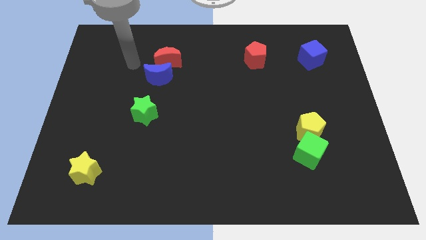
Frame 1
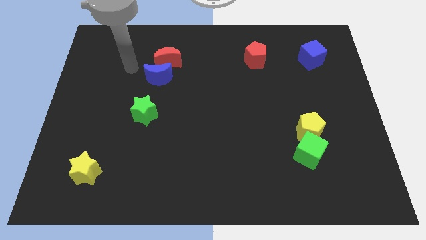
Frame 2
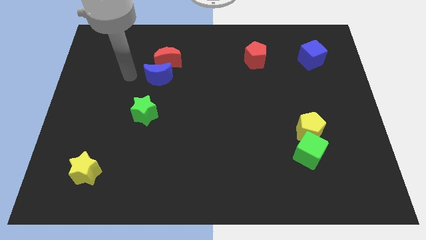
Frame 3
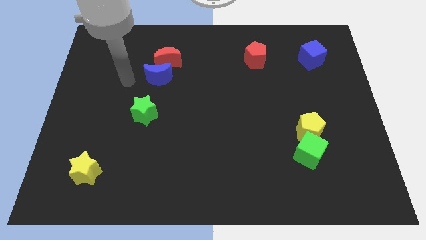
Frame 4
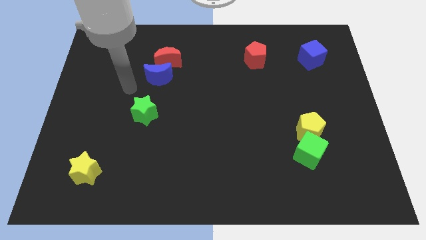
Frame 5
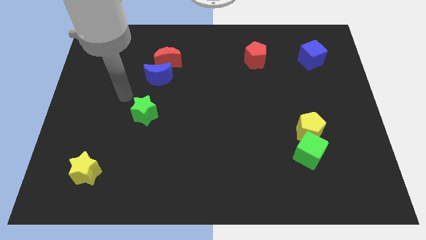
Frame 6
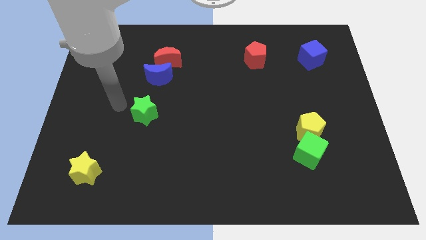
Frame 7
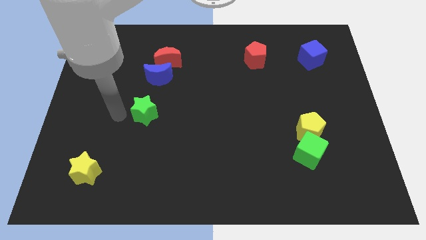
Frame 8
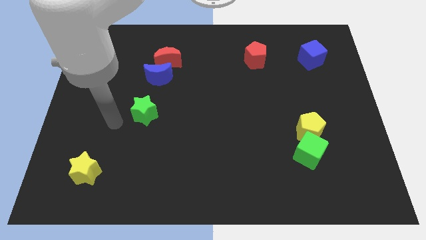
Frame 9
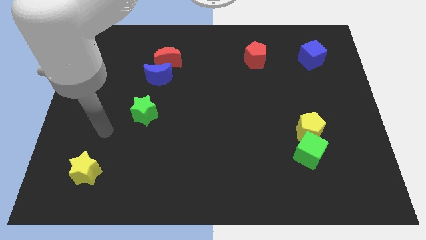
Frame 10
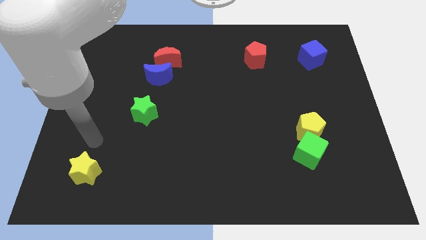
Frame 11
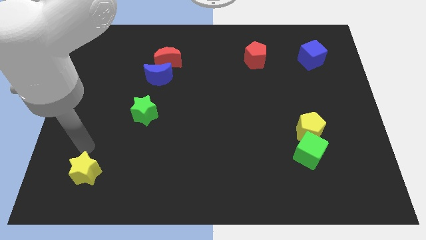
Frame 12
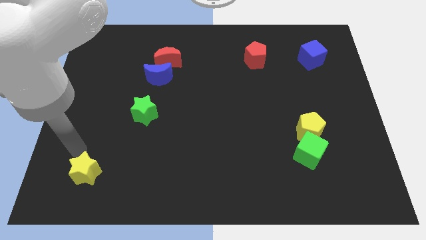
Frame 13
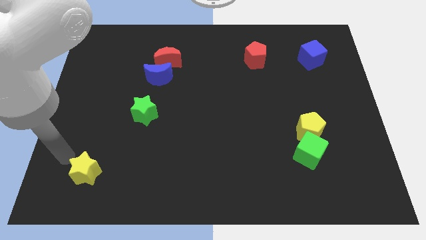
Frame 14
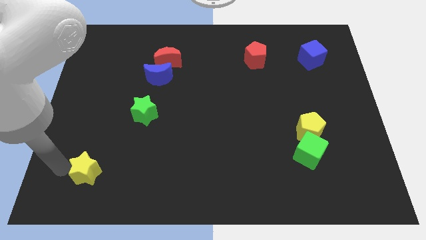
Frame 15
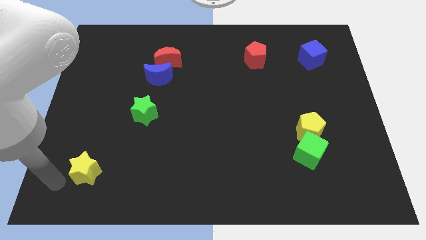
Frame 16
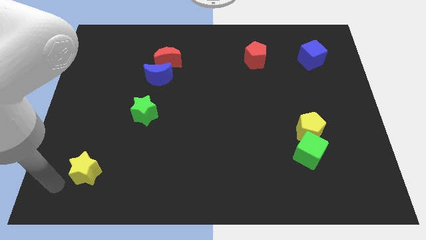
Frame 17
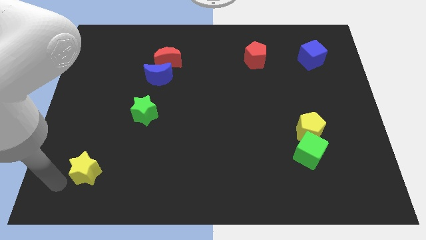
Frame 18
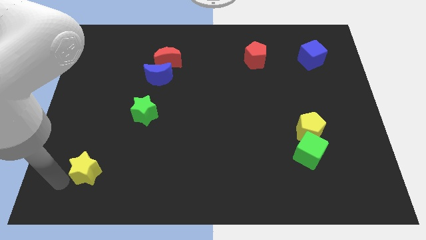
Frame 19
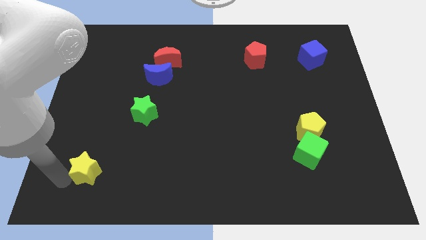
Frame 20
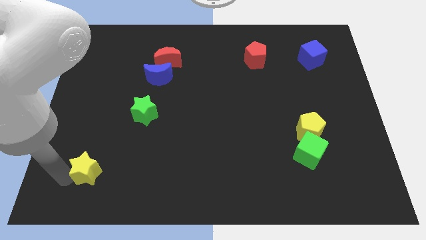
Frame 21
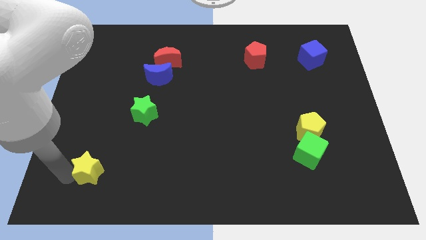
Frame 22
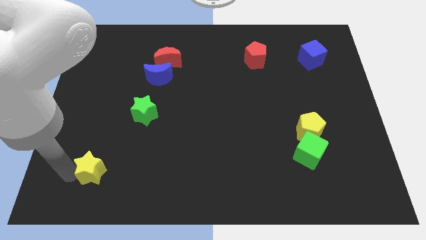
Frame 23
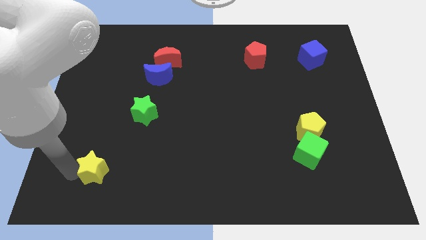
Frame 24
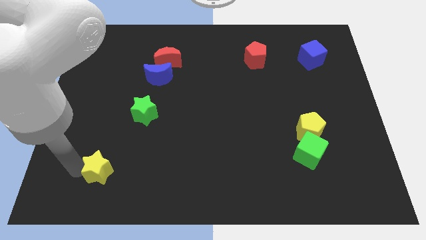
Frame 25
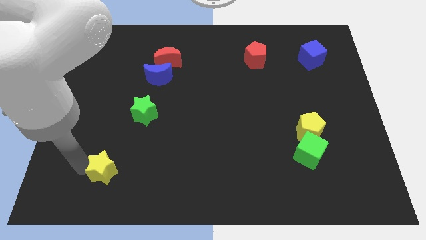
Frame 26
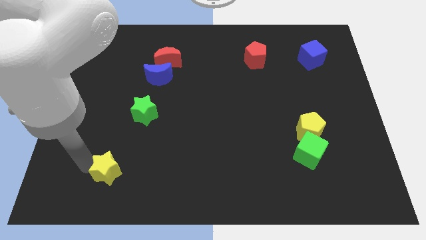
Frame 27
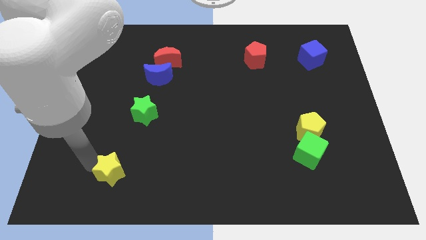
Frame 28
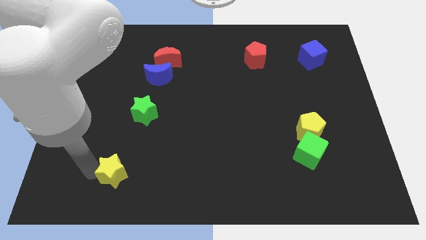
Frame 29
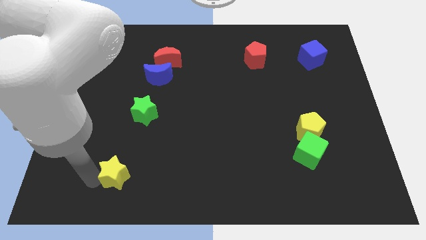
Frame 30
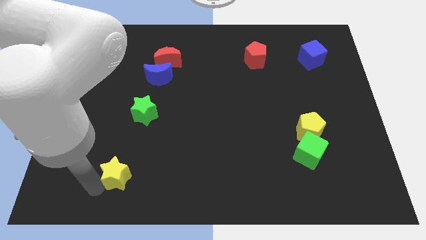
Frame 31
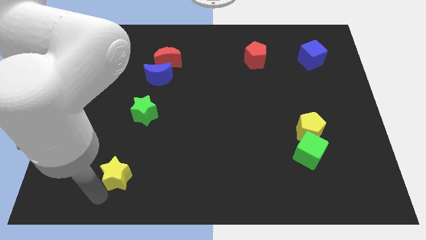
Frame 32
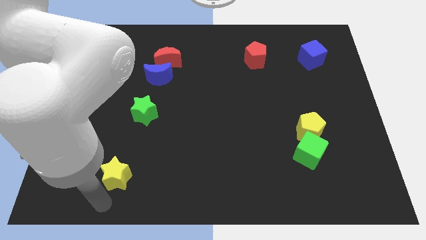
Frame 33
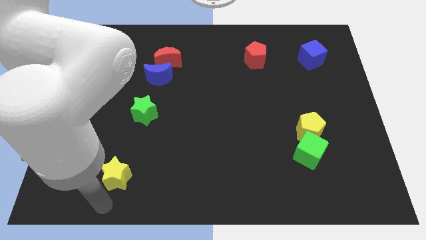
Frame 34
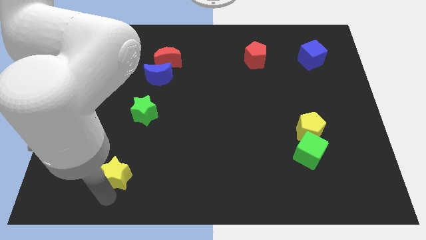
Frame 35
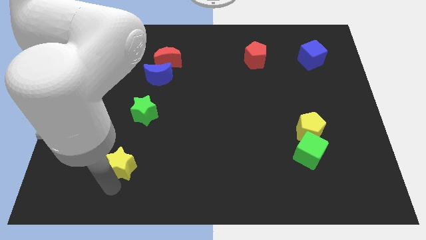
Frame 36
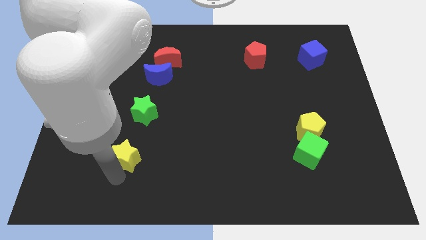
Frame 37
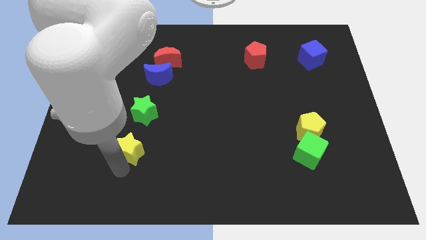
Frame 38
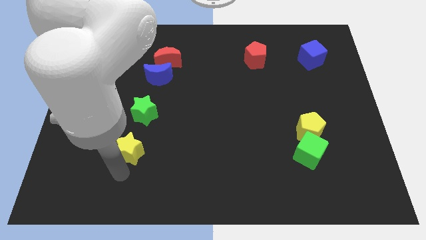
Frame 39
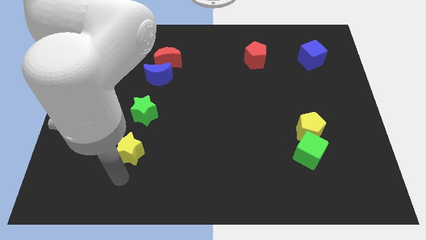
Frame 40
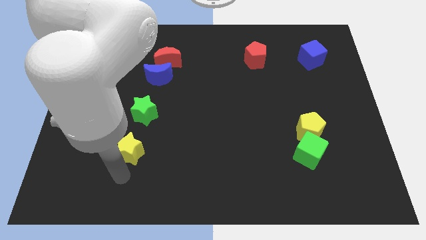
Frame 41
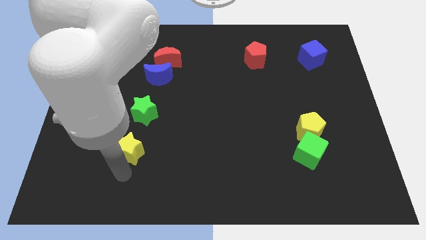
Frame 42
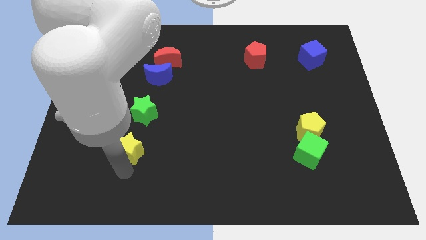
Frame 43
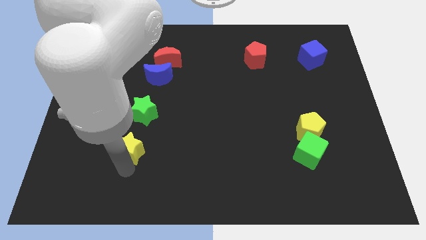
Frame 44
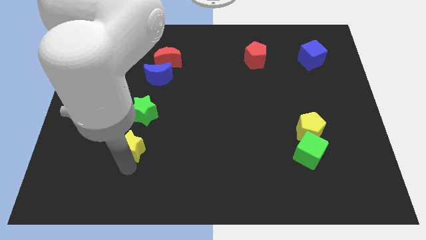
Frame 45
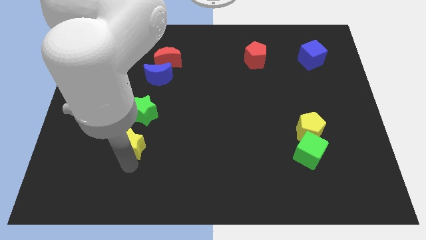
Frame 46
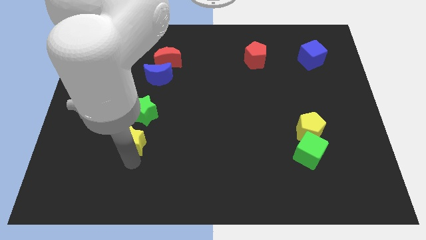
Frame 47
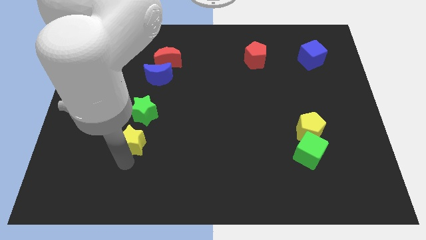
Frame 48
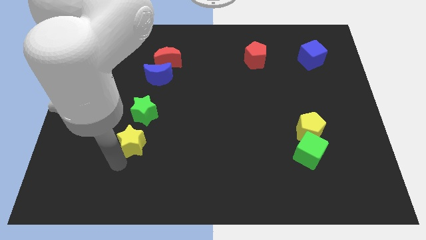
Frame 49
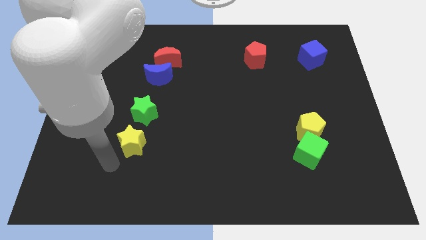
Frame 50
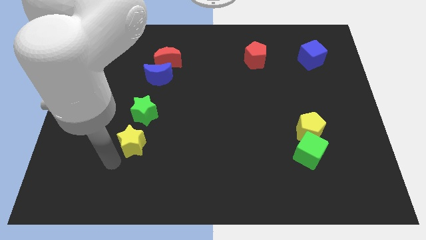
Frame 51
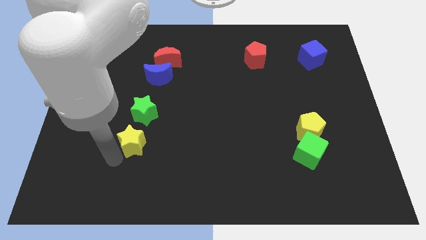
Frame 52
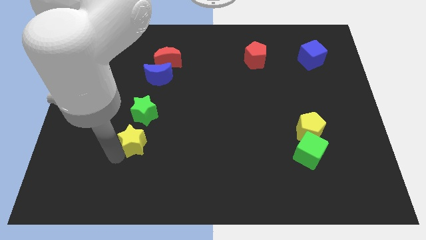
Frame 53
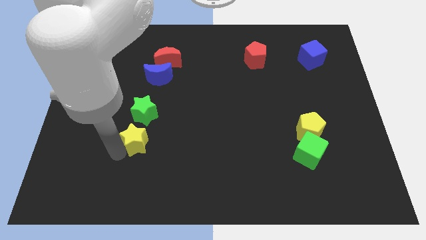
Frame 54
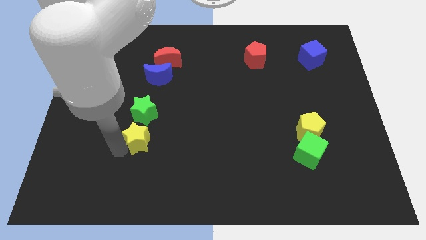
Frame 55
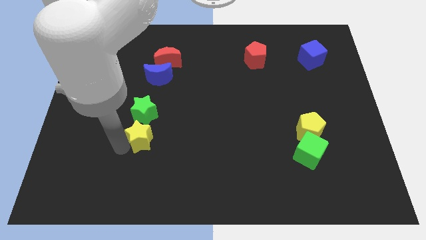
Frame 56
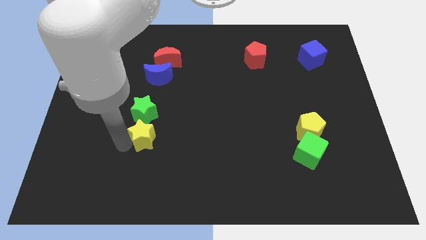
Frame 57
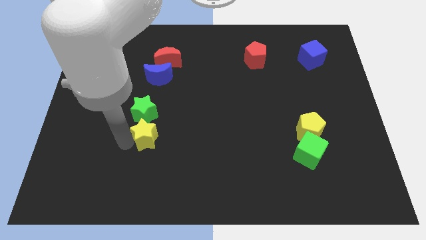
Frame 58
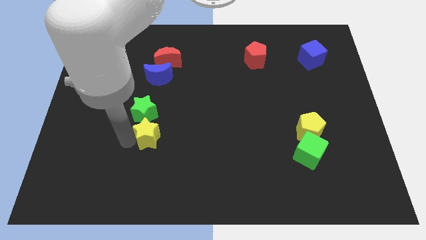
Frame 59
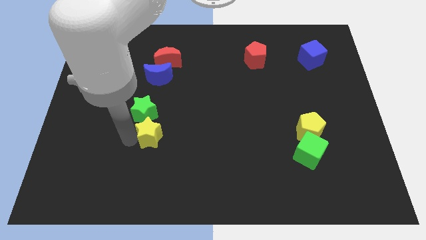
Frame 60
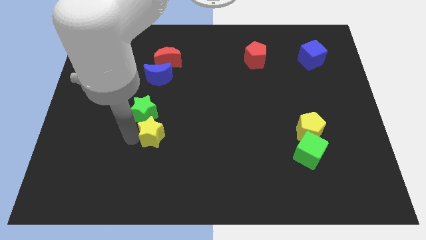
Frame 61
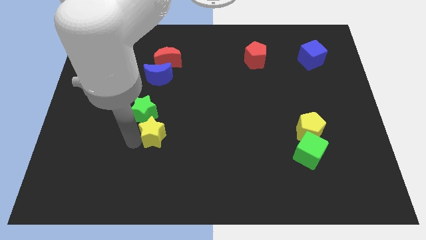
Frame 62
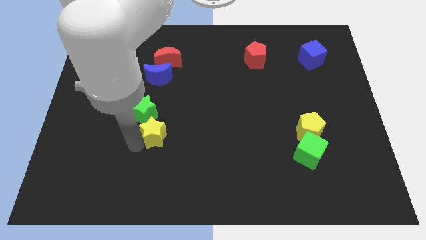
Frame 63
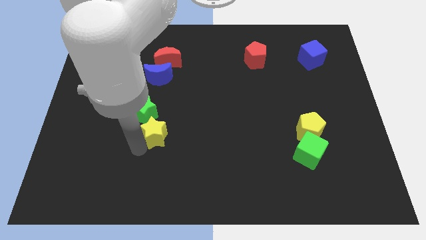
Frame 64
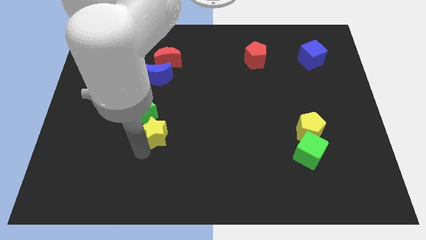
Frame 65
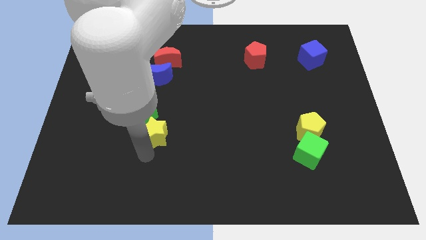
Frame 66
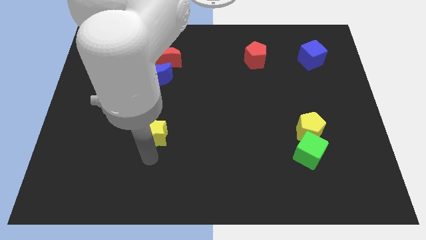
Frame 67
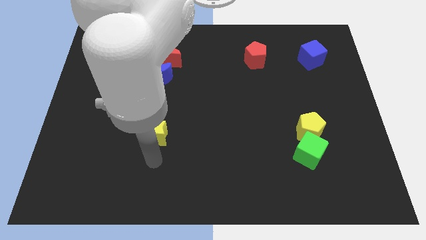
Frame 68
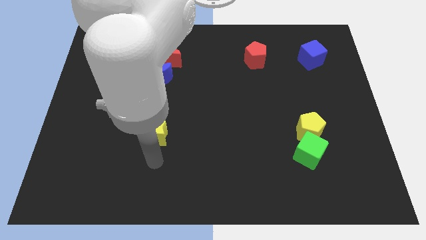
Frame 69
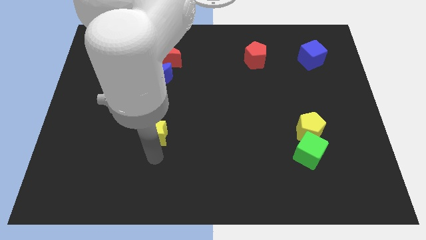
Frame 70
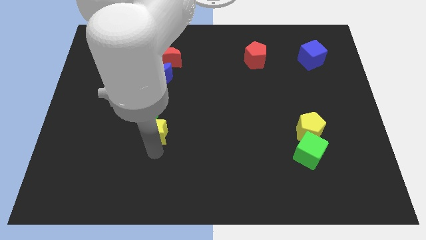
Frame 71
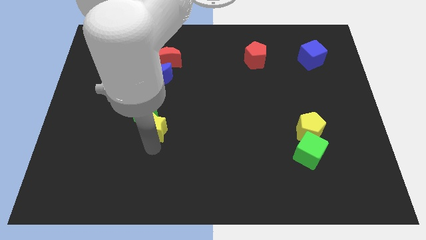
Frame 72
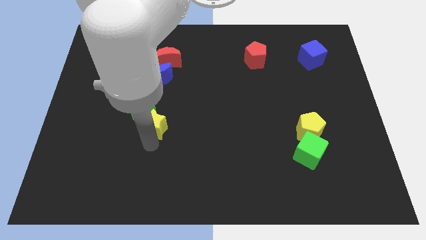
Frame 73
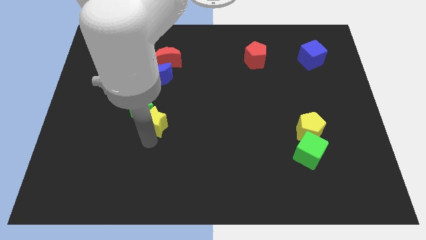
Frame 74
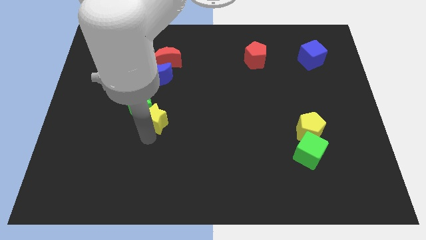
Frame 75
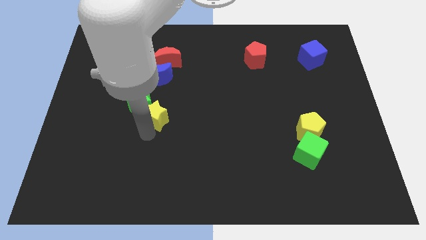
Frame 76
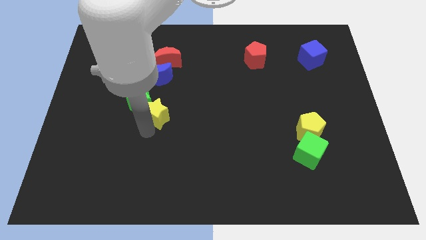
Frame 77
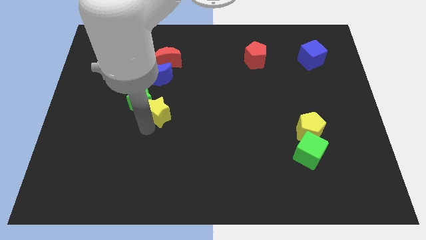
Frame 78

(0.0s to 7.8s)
push the yellow star up and then right

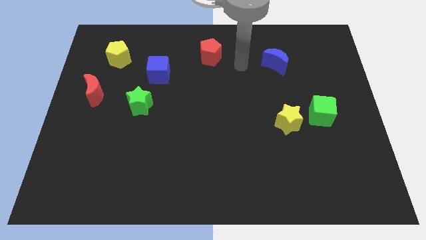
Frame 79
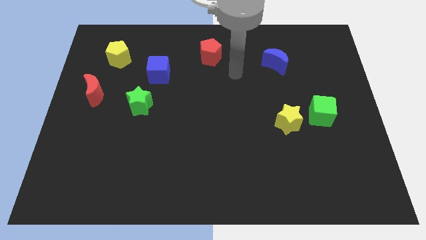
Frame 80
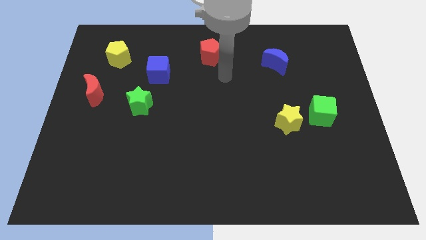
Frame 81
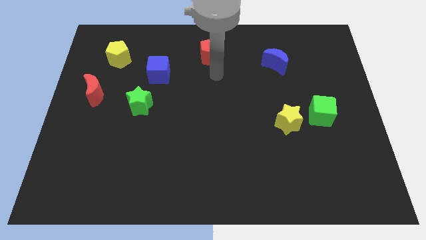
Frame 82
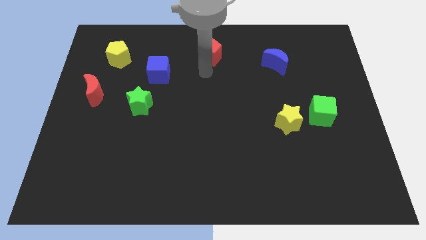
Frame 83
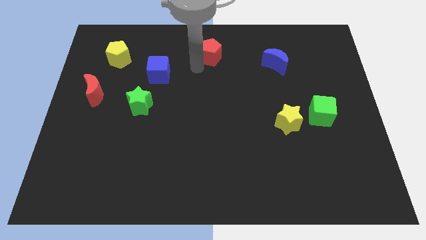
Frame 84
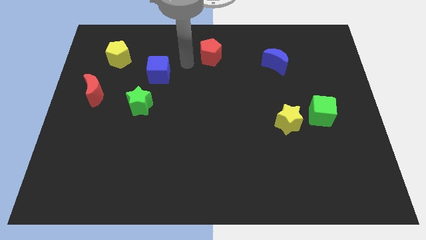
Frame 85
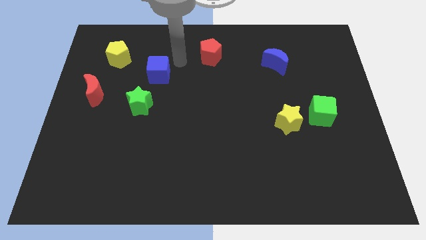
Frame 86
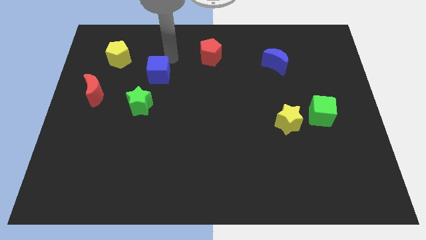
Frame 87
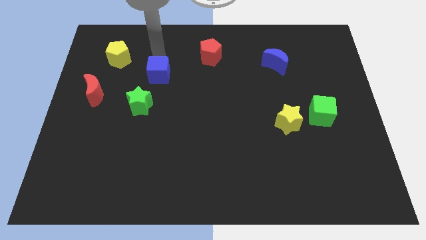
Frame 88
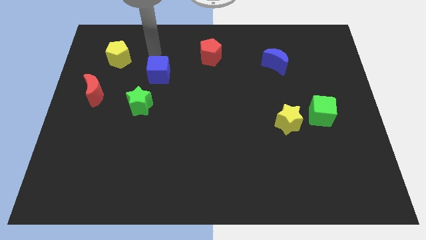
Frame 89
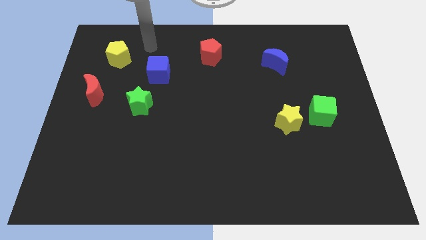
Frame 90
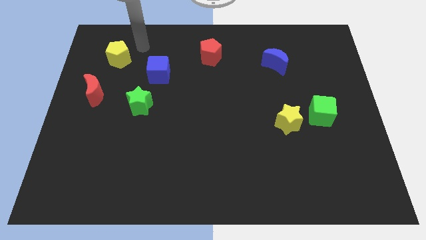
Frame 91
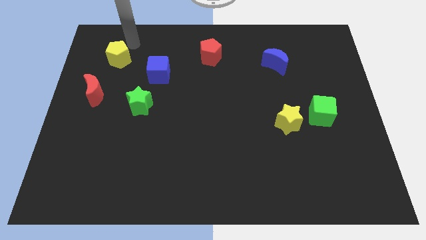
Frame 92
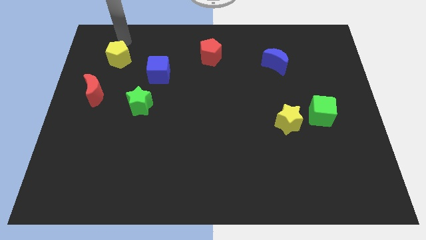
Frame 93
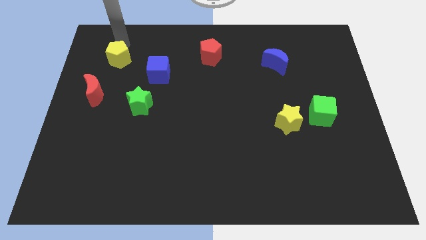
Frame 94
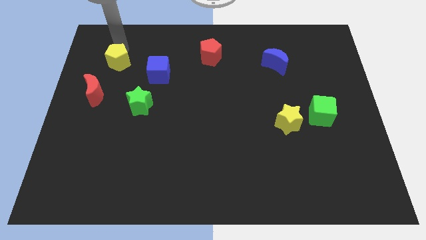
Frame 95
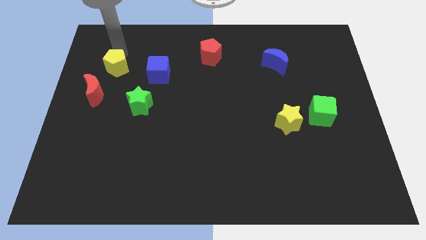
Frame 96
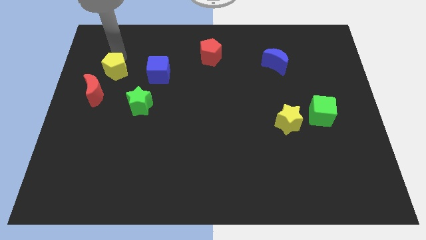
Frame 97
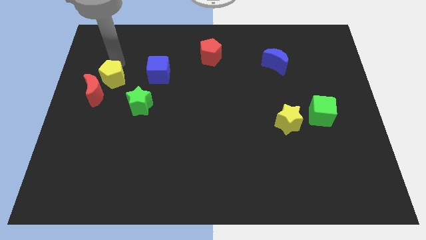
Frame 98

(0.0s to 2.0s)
slide the yellow pentagon a little downwards
